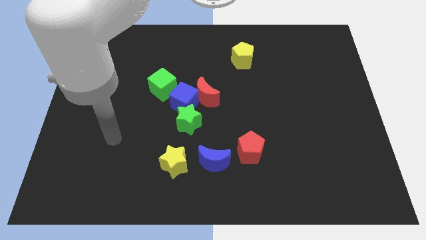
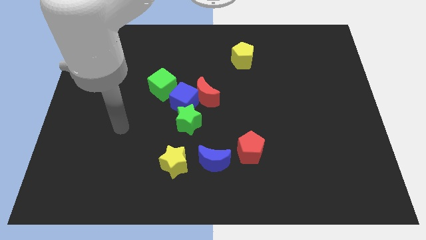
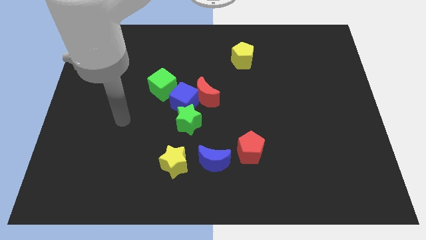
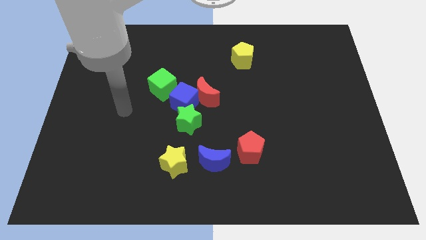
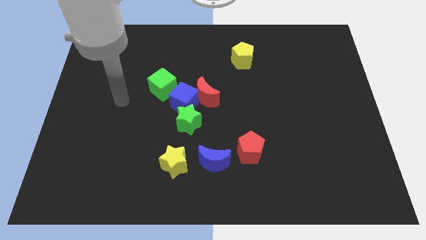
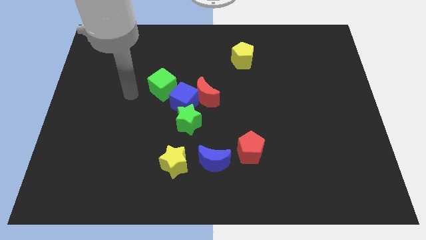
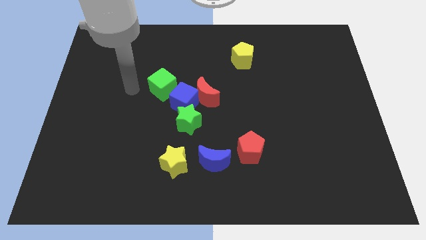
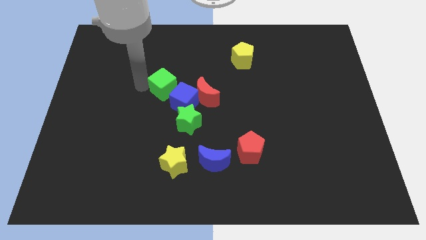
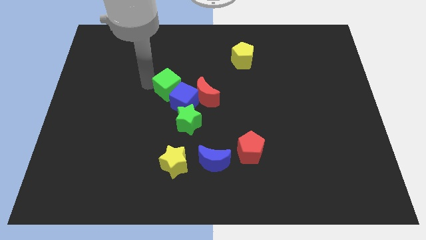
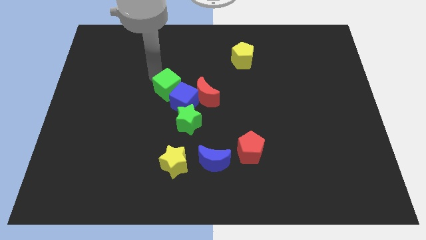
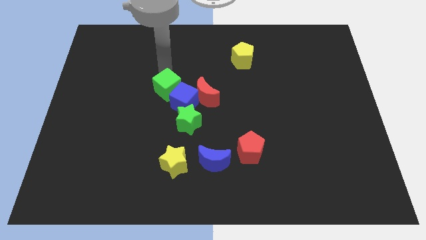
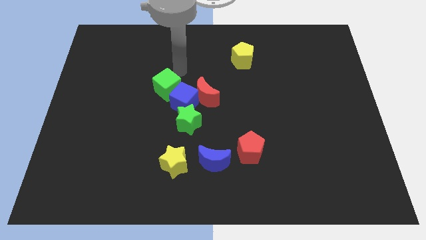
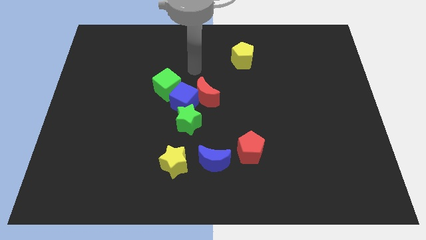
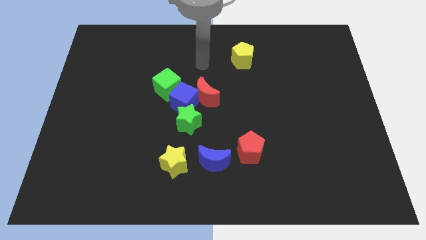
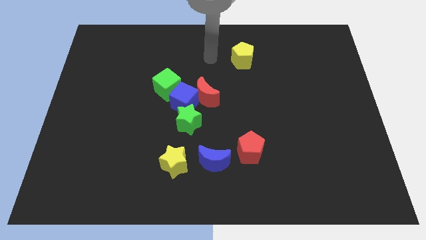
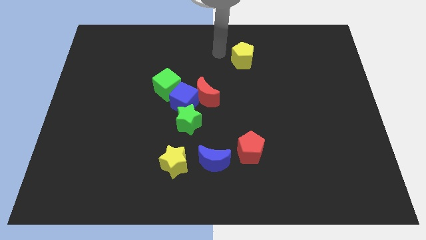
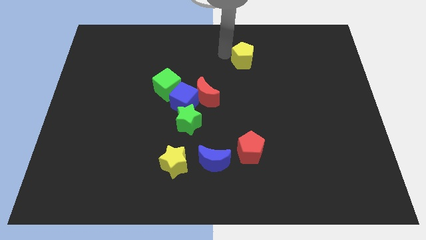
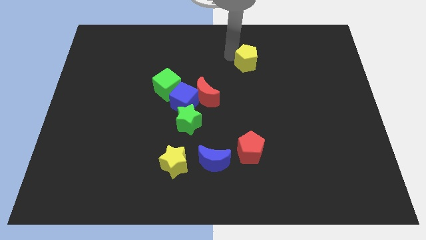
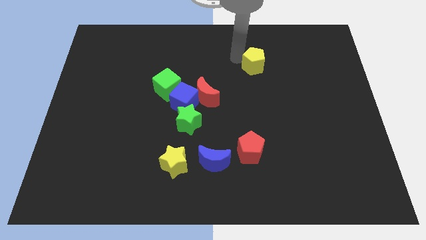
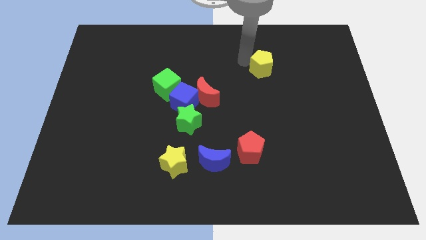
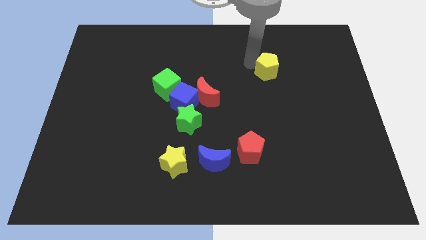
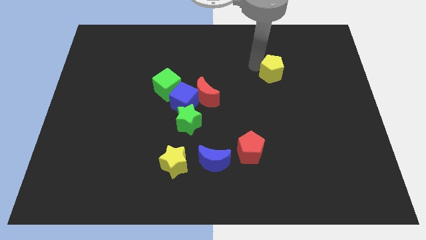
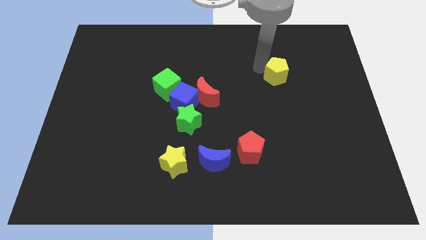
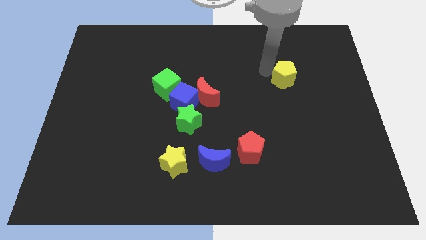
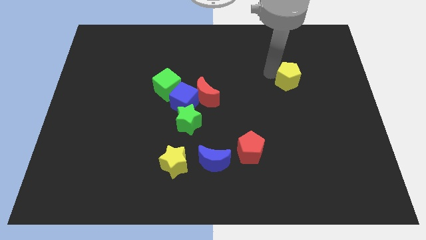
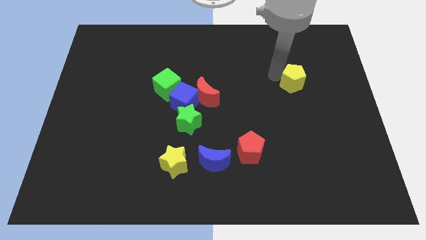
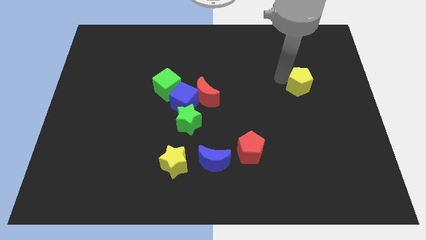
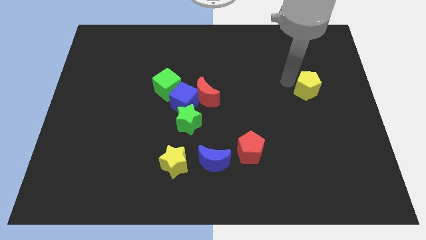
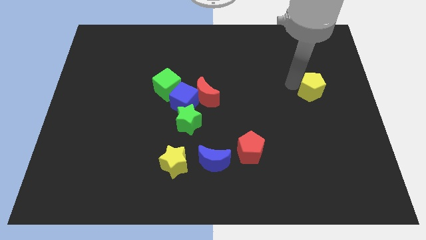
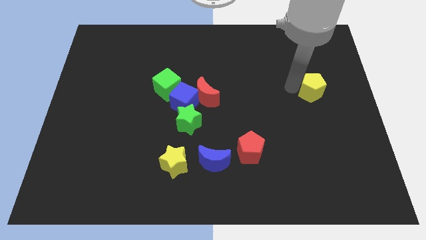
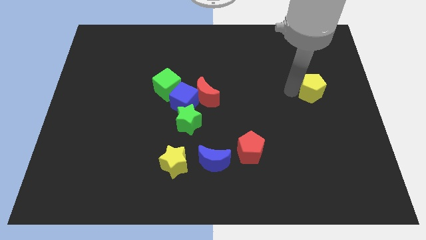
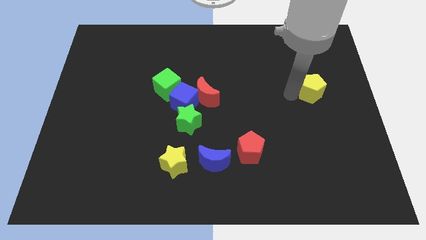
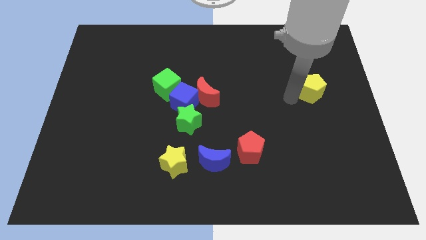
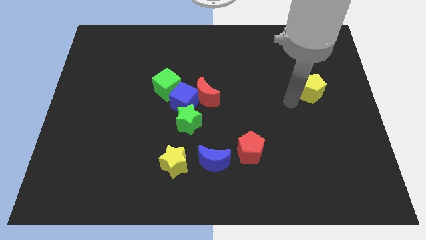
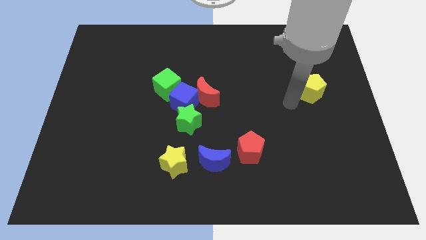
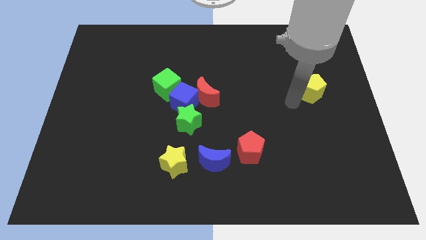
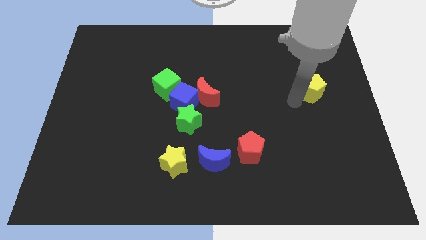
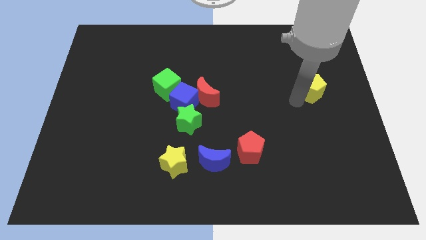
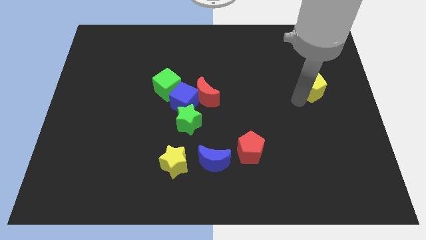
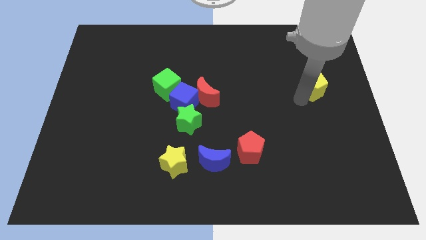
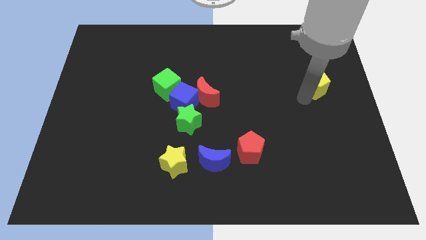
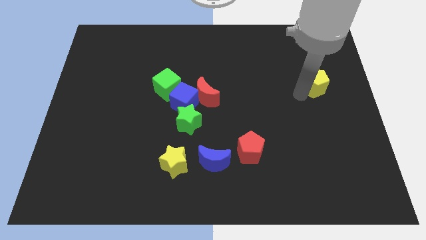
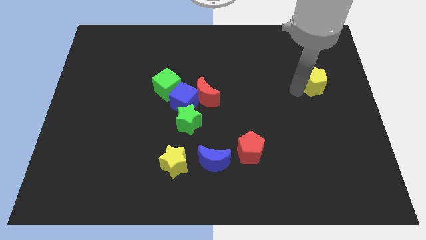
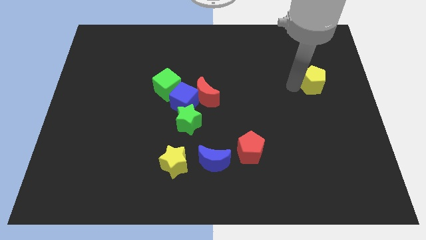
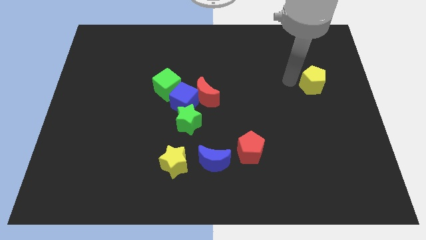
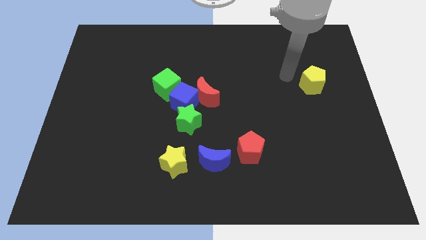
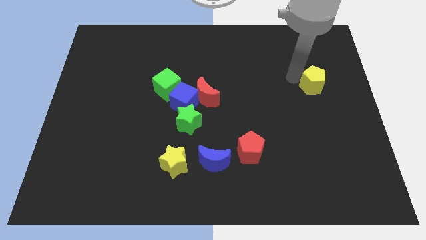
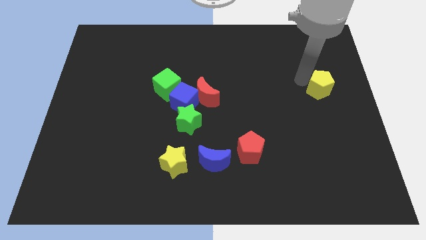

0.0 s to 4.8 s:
slide the yellow pentagon to the right side

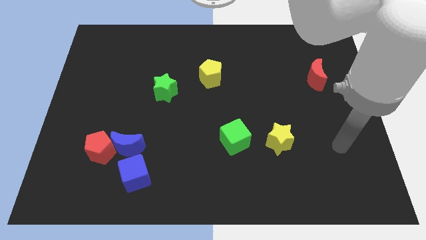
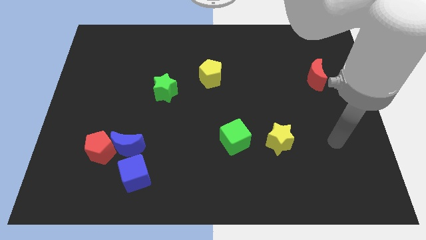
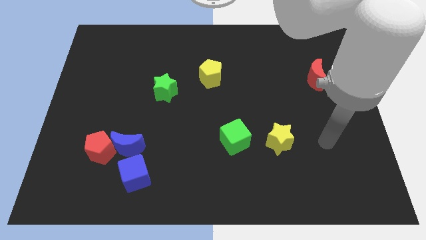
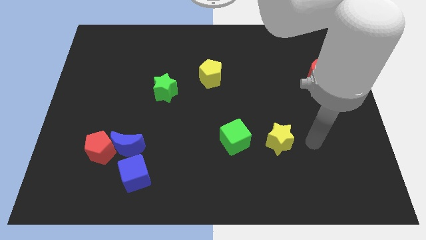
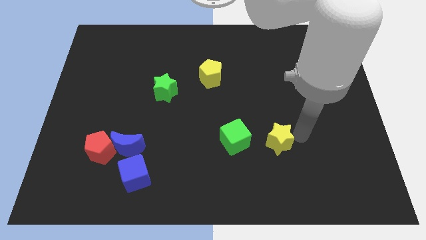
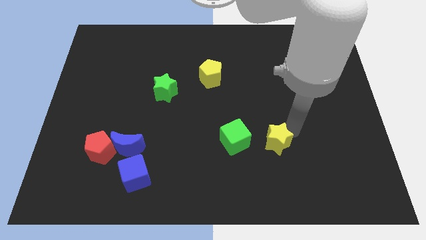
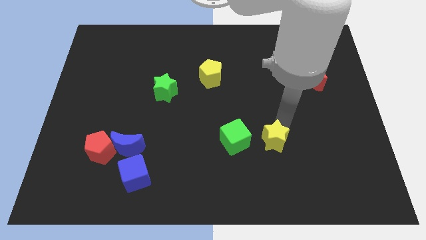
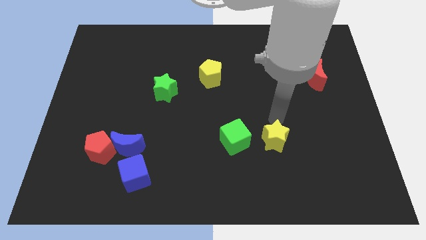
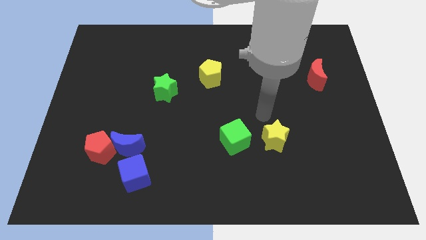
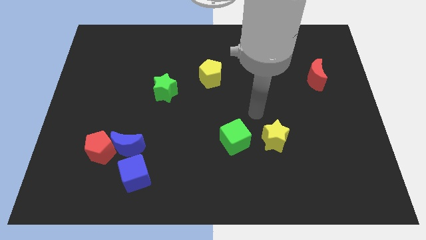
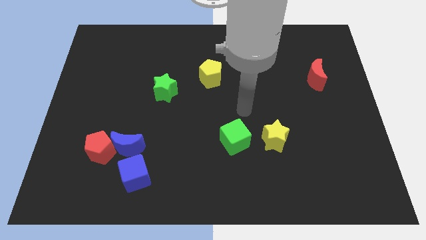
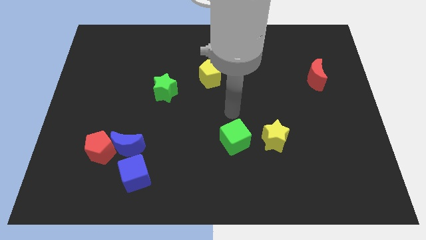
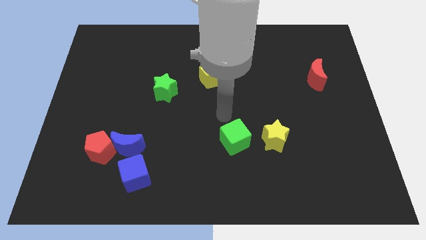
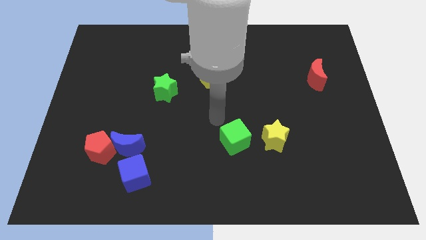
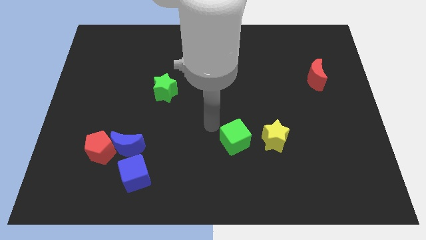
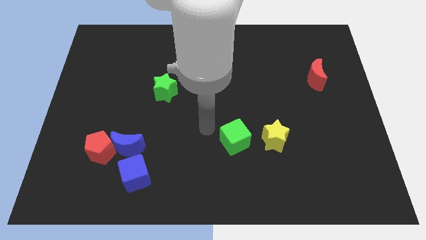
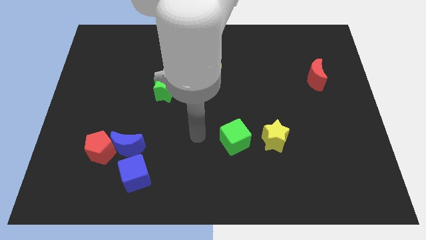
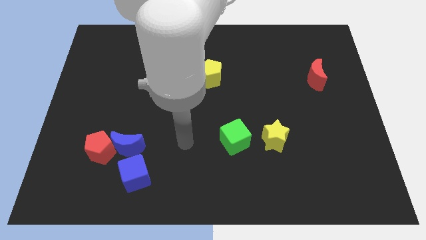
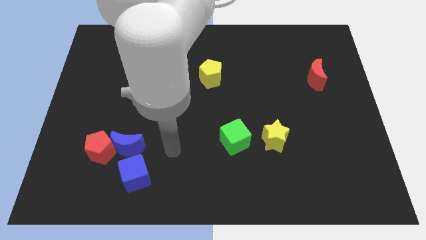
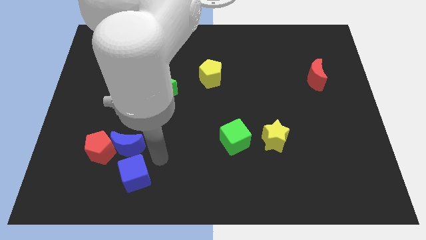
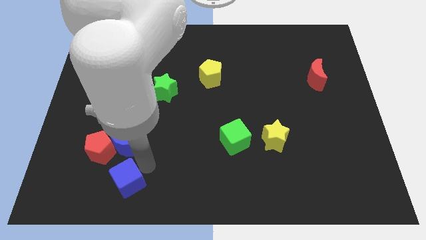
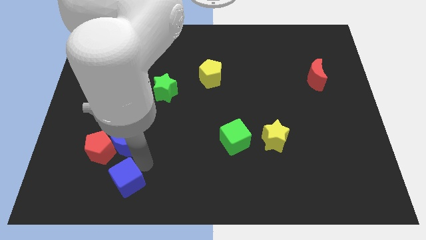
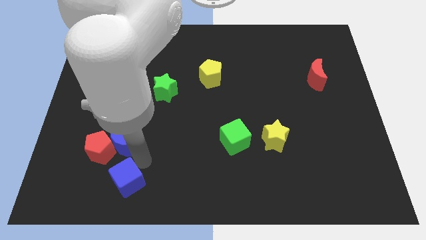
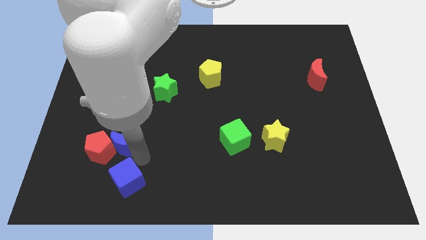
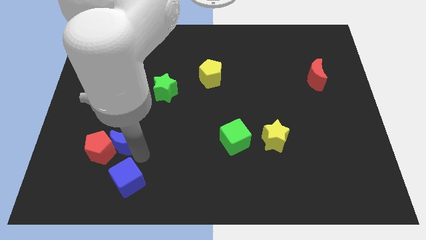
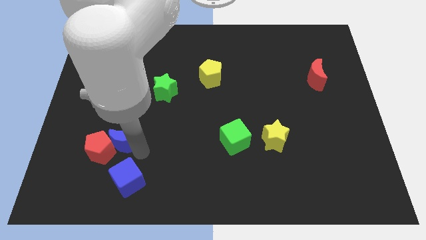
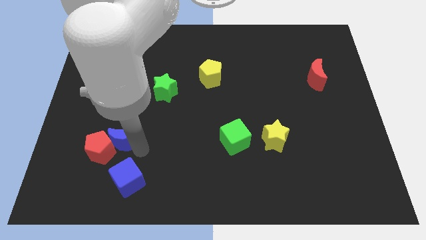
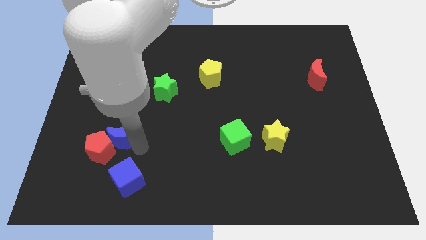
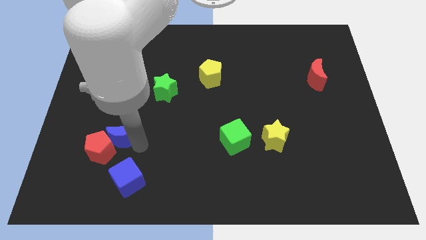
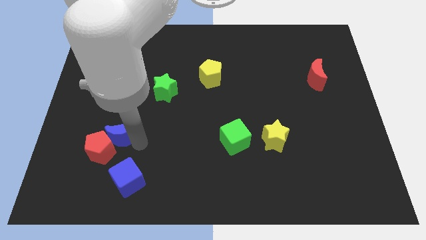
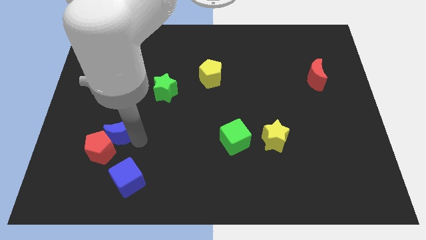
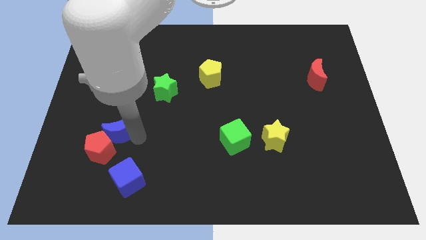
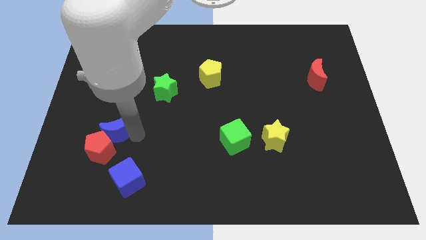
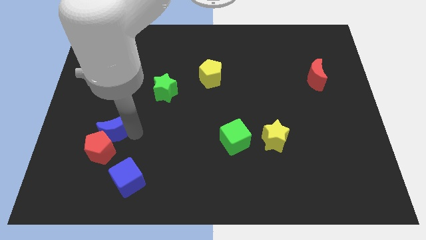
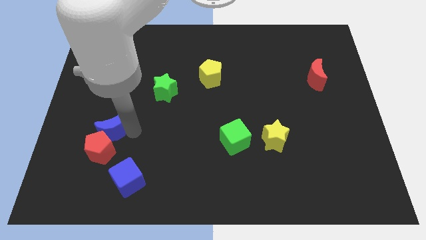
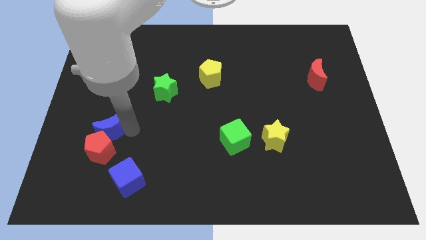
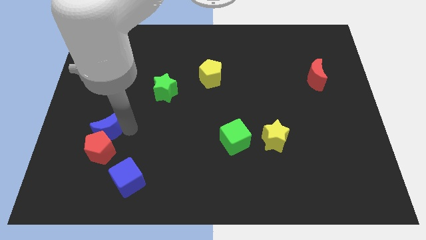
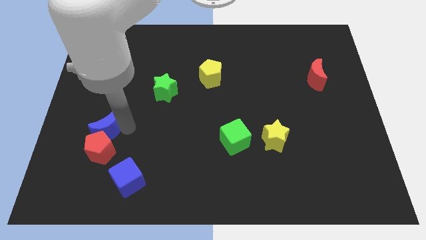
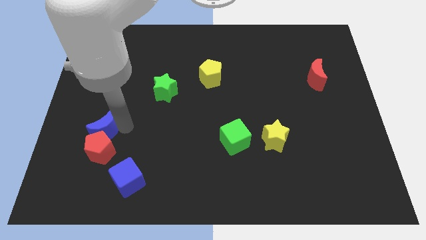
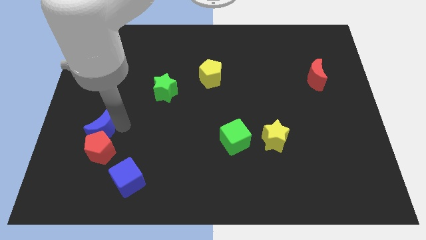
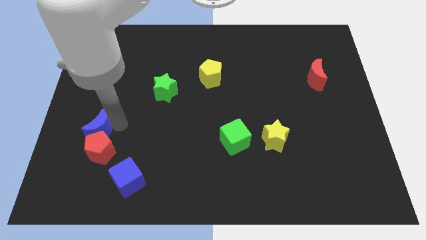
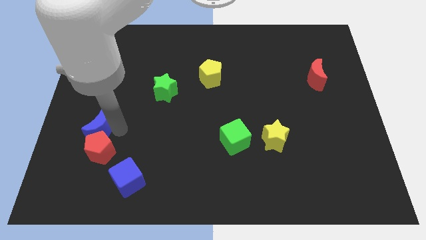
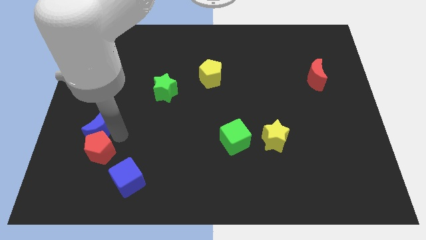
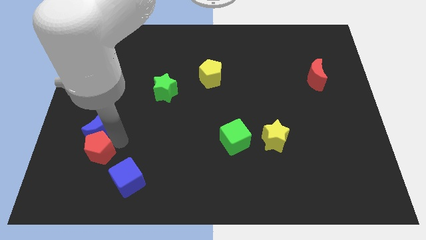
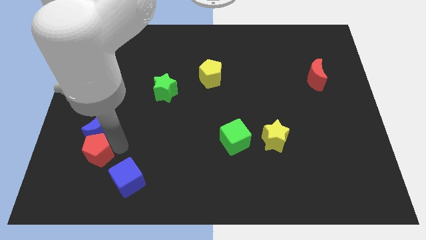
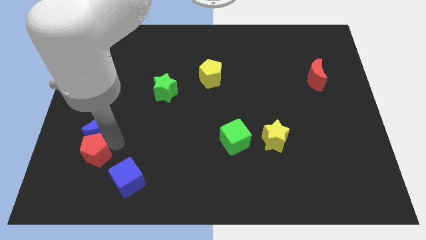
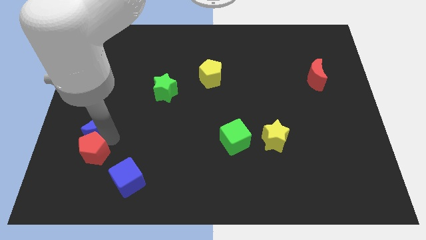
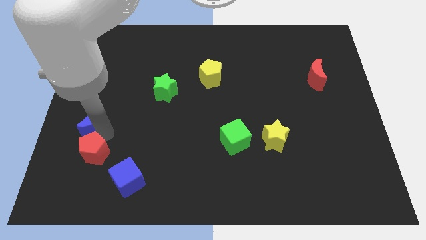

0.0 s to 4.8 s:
push the blue moon to the center left
